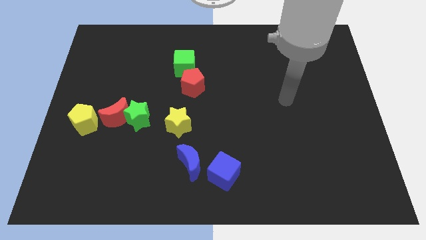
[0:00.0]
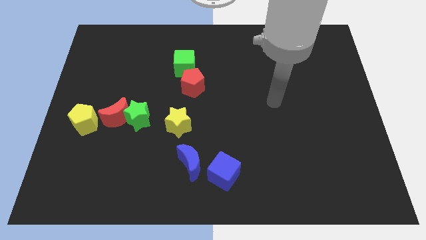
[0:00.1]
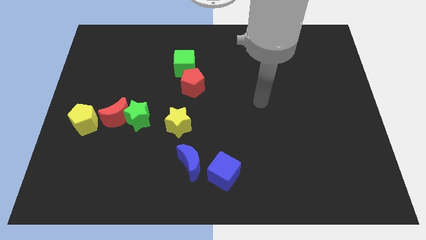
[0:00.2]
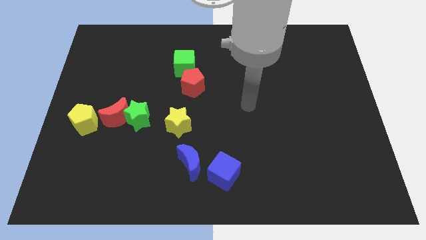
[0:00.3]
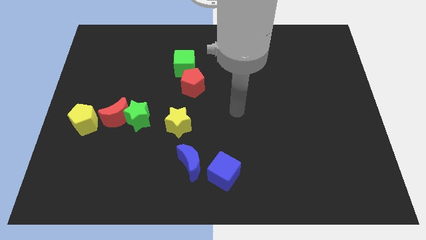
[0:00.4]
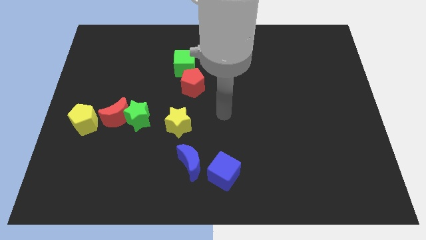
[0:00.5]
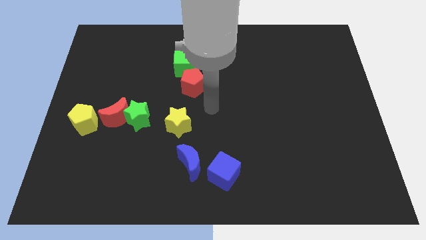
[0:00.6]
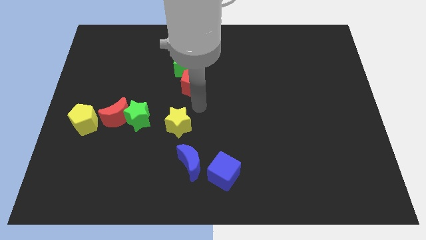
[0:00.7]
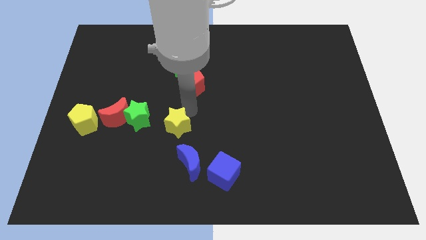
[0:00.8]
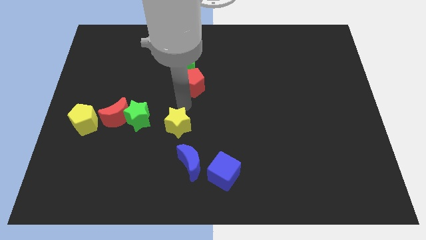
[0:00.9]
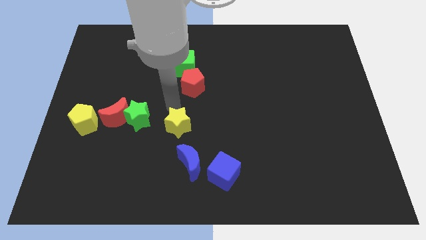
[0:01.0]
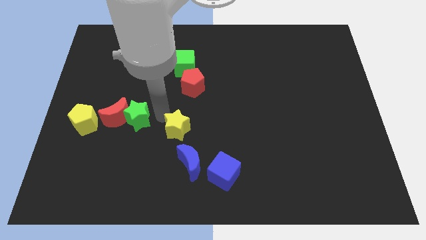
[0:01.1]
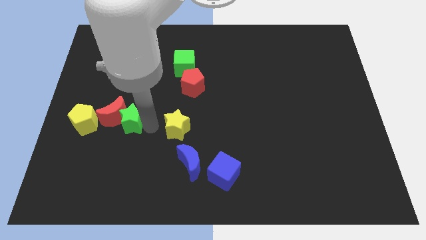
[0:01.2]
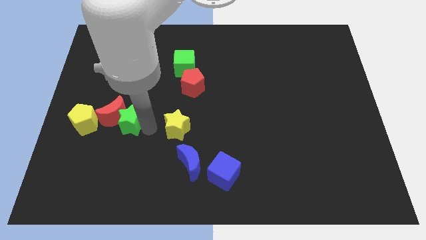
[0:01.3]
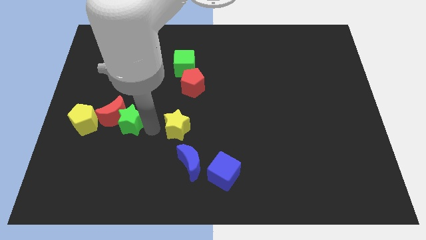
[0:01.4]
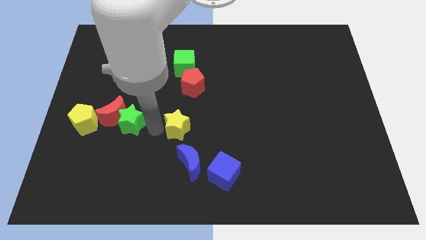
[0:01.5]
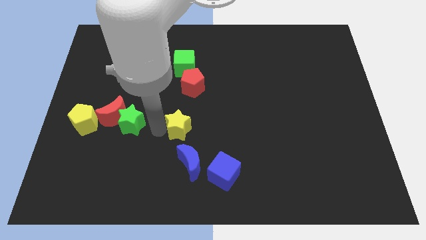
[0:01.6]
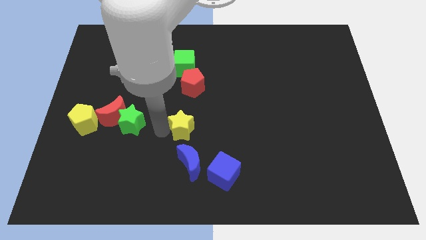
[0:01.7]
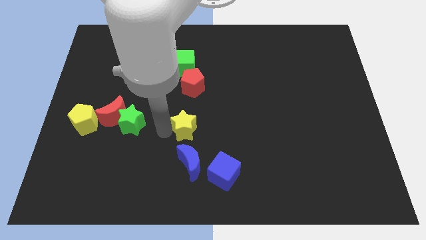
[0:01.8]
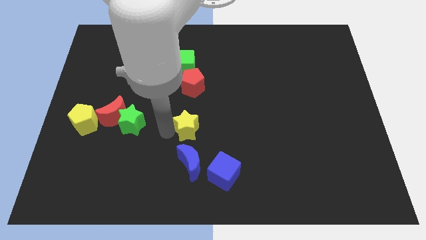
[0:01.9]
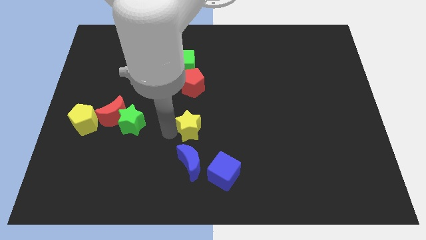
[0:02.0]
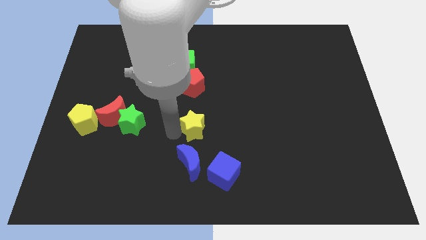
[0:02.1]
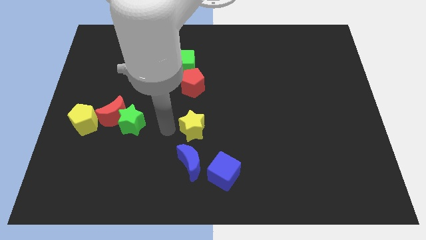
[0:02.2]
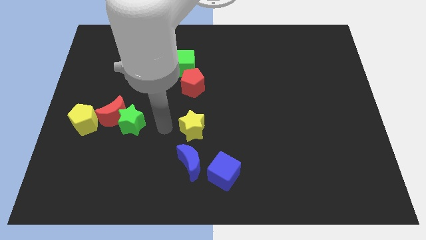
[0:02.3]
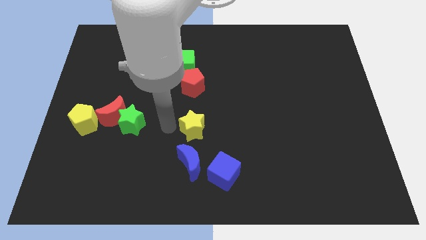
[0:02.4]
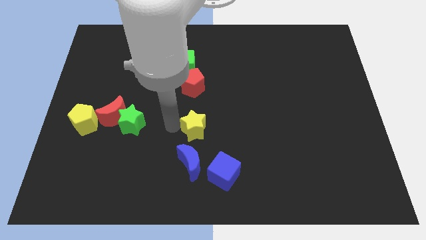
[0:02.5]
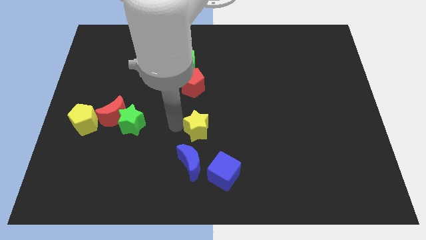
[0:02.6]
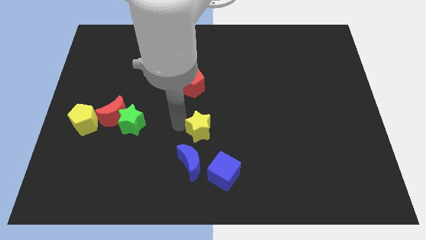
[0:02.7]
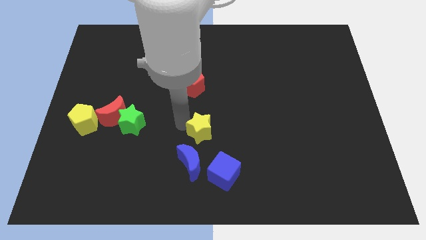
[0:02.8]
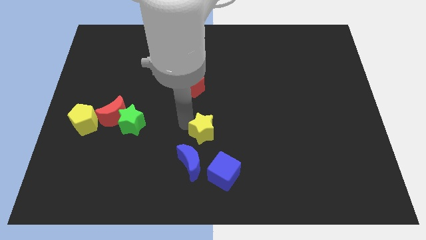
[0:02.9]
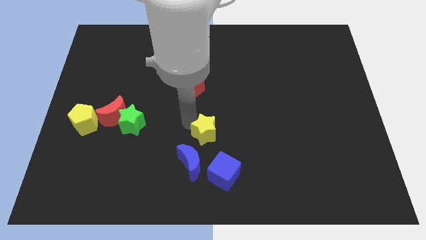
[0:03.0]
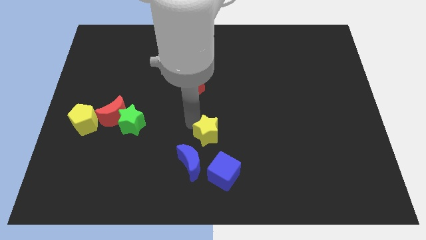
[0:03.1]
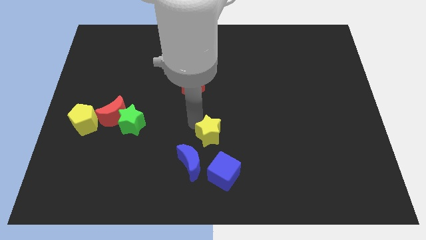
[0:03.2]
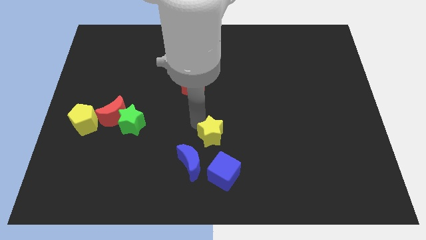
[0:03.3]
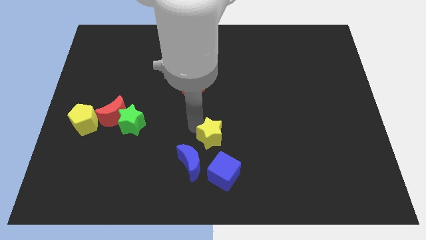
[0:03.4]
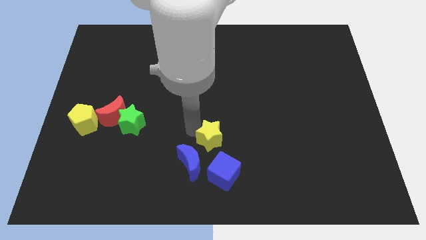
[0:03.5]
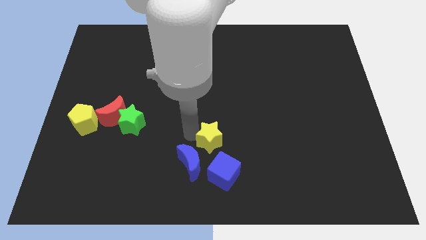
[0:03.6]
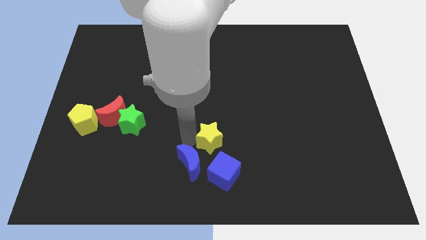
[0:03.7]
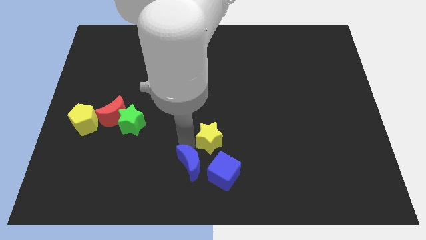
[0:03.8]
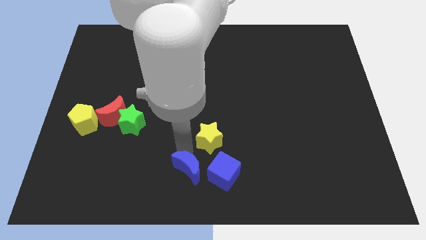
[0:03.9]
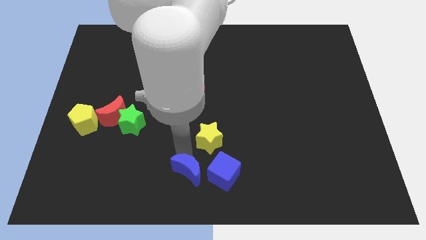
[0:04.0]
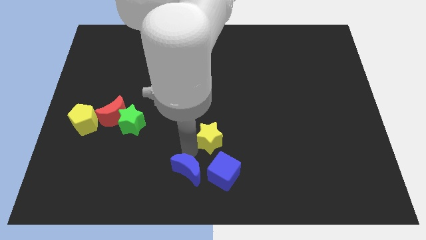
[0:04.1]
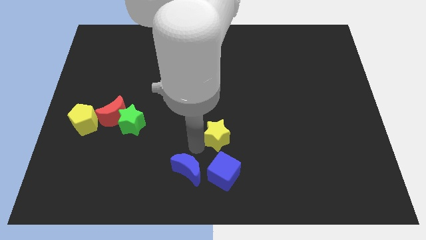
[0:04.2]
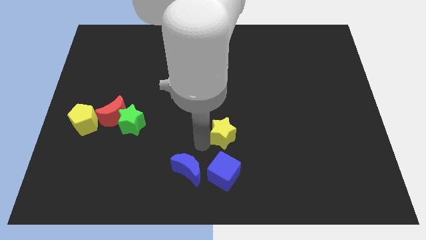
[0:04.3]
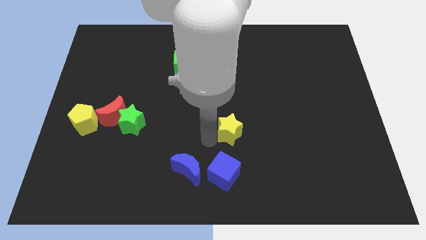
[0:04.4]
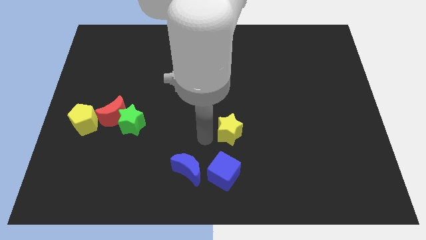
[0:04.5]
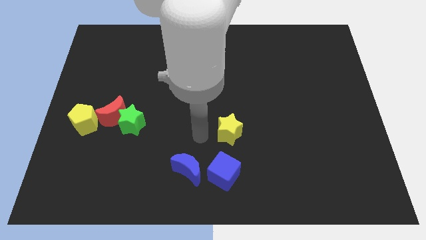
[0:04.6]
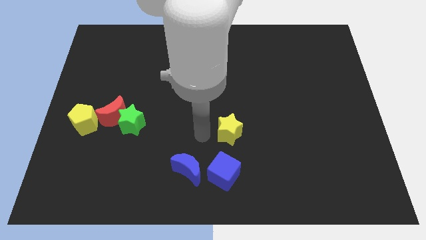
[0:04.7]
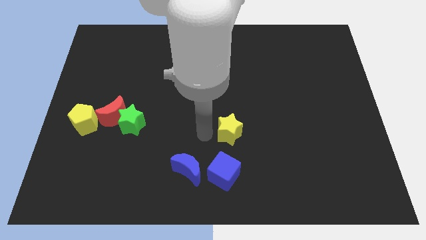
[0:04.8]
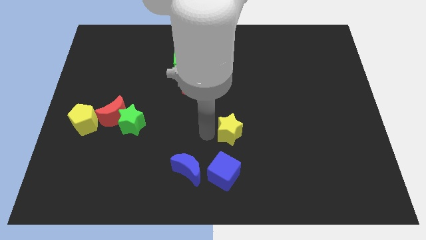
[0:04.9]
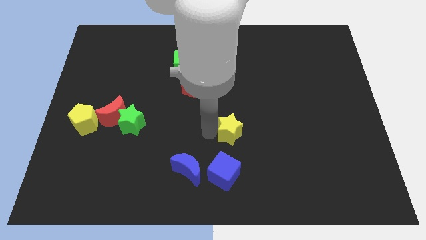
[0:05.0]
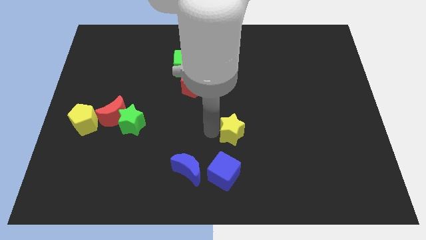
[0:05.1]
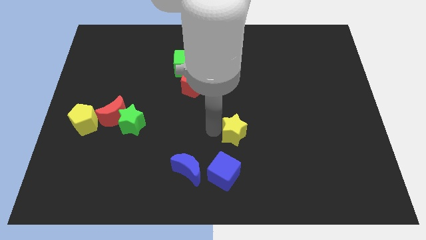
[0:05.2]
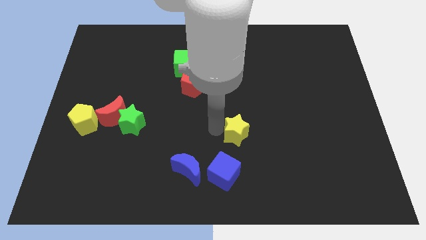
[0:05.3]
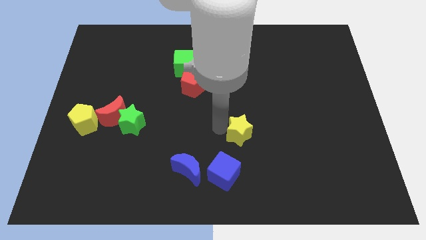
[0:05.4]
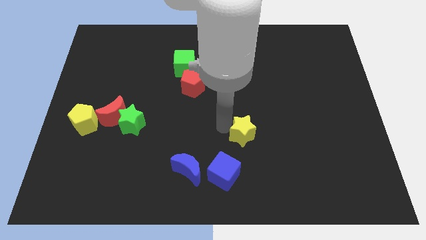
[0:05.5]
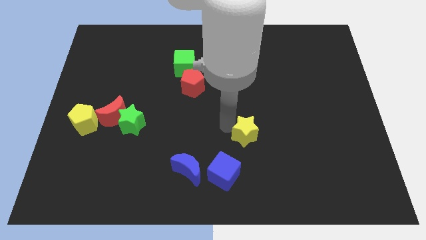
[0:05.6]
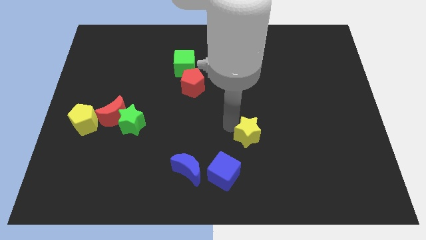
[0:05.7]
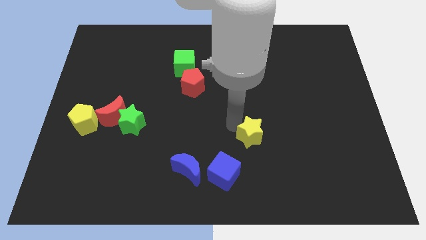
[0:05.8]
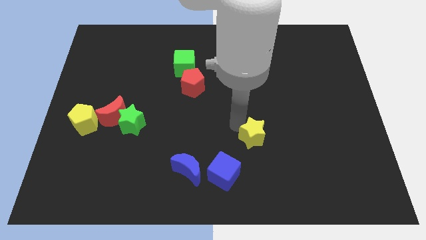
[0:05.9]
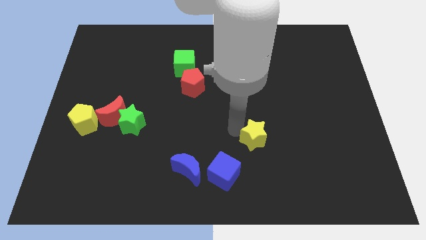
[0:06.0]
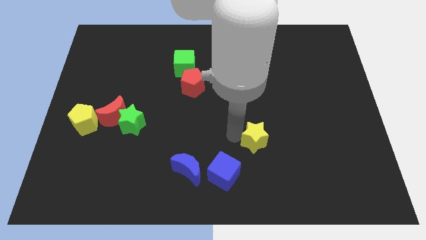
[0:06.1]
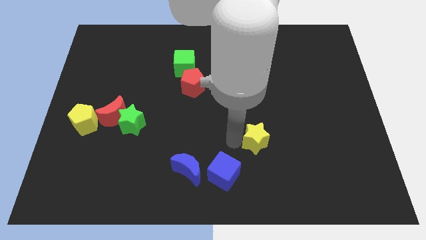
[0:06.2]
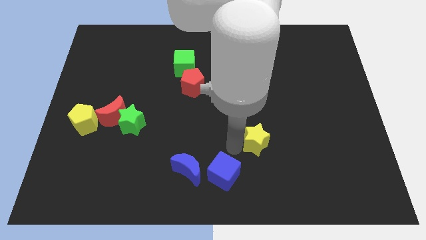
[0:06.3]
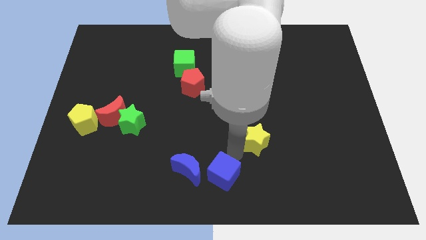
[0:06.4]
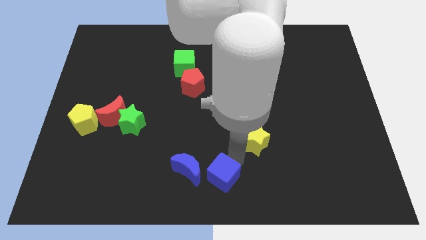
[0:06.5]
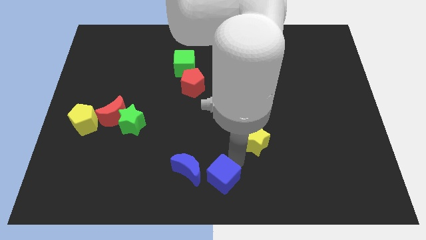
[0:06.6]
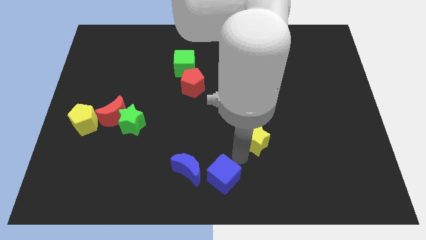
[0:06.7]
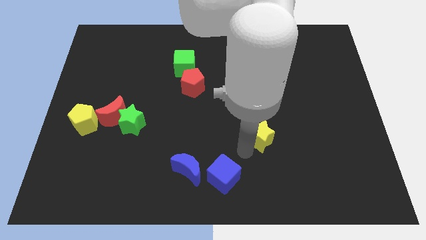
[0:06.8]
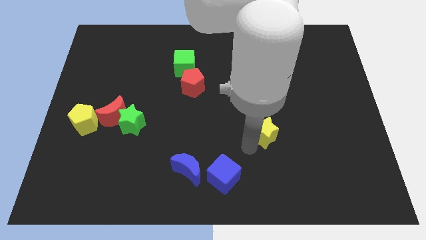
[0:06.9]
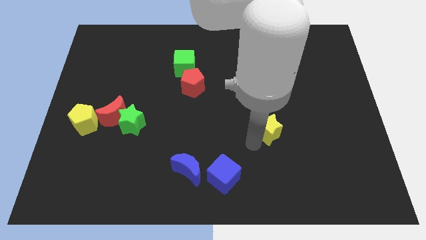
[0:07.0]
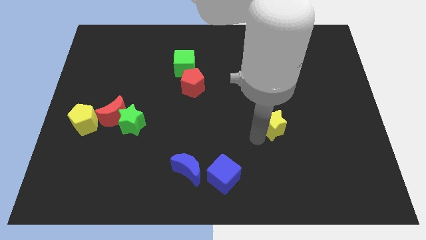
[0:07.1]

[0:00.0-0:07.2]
slide the yellow star right

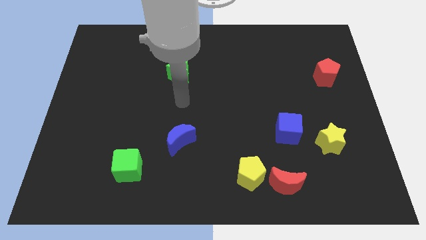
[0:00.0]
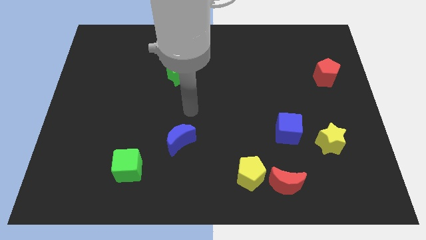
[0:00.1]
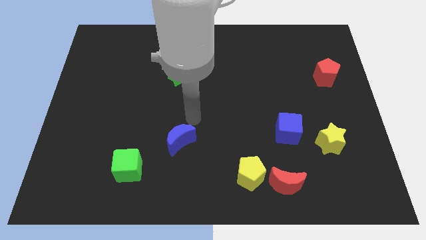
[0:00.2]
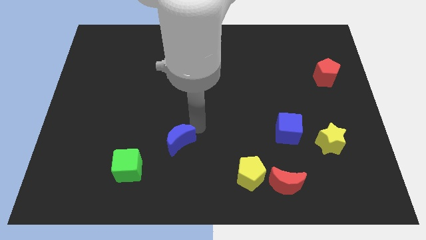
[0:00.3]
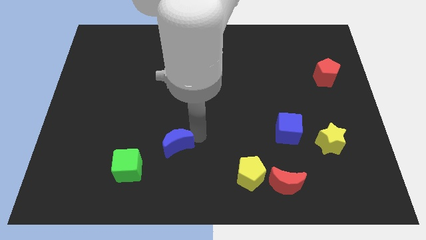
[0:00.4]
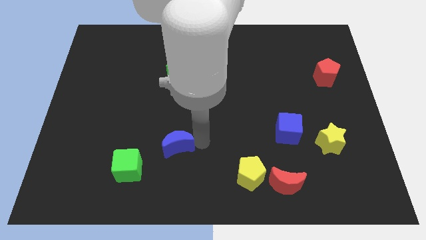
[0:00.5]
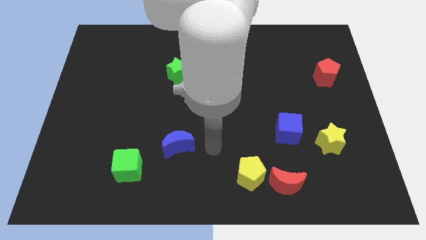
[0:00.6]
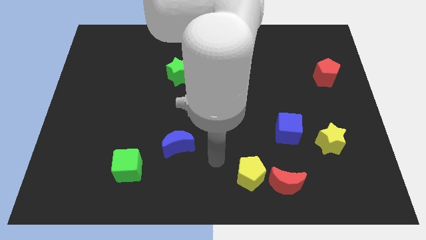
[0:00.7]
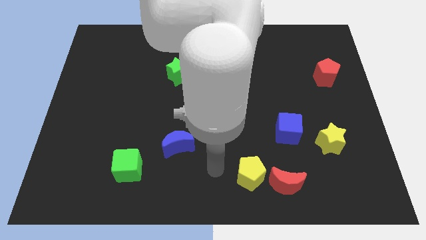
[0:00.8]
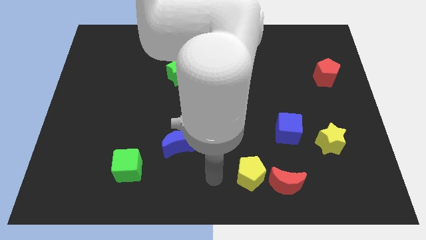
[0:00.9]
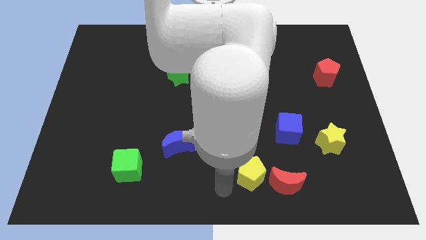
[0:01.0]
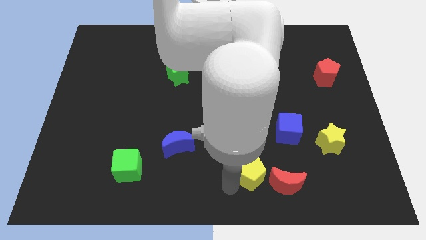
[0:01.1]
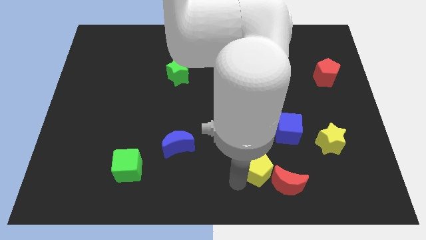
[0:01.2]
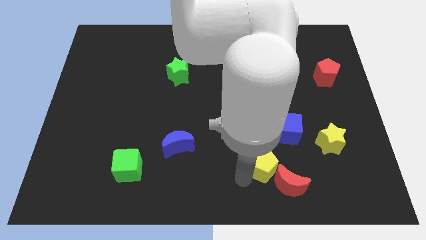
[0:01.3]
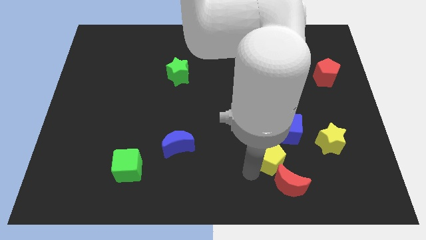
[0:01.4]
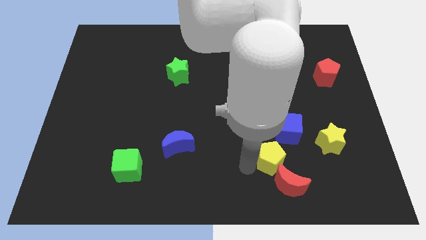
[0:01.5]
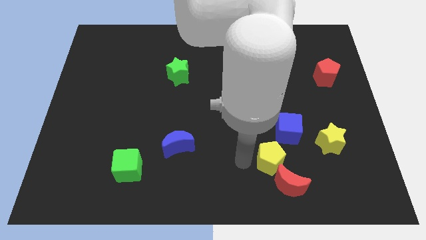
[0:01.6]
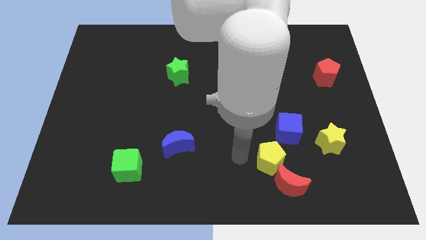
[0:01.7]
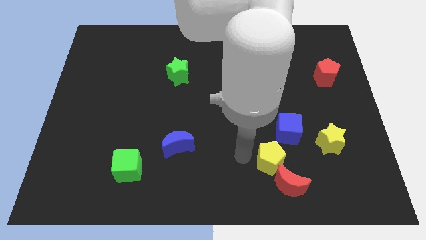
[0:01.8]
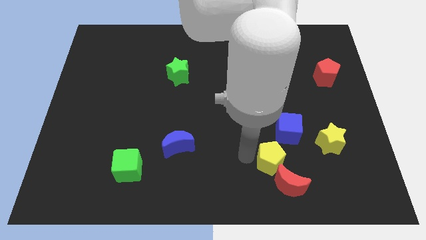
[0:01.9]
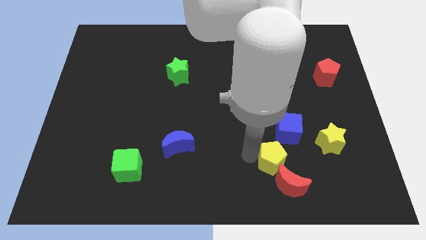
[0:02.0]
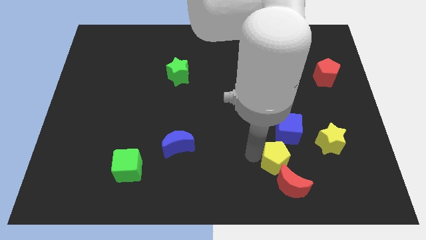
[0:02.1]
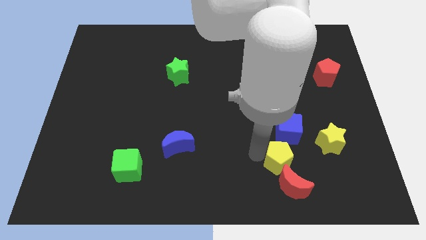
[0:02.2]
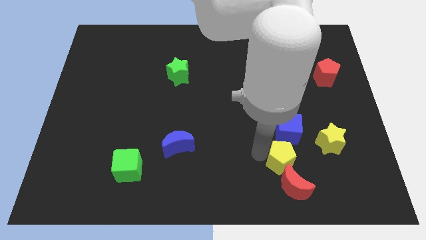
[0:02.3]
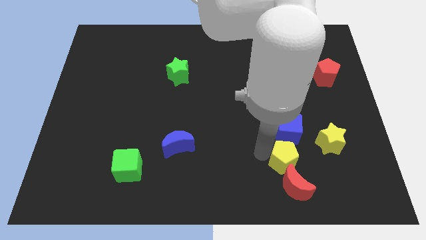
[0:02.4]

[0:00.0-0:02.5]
push the yellow pentagon a little to the right
